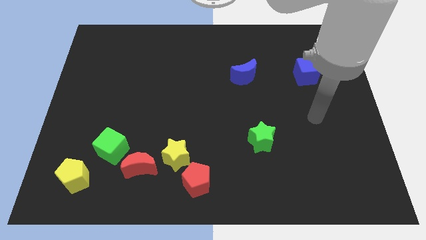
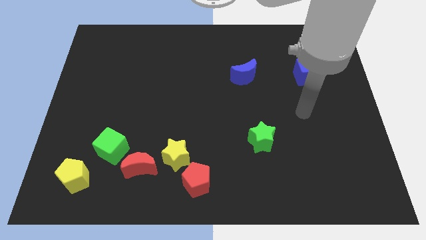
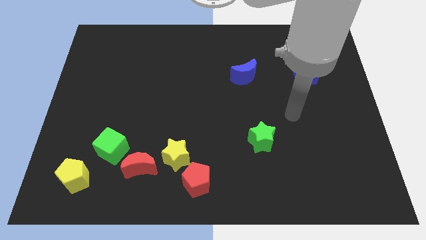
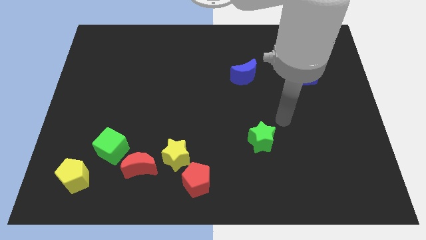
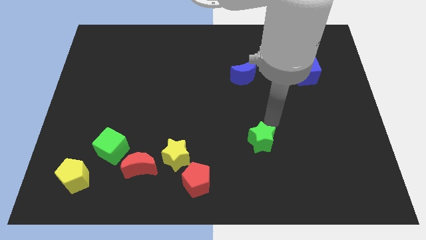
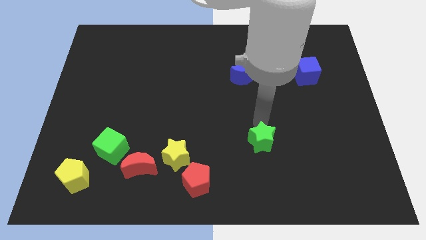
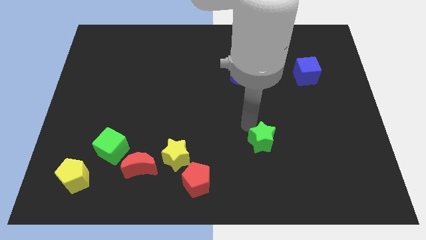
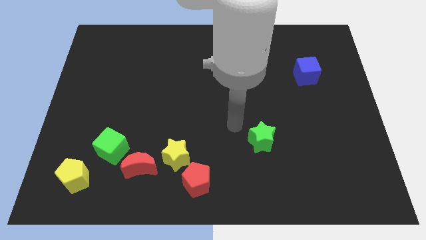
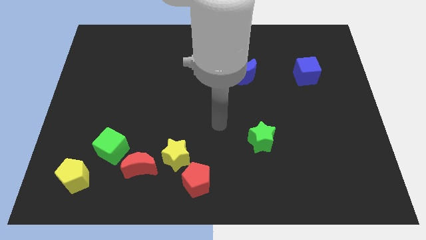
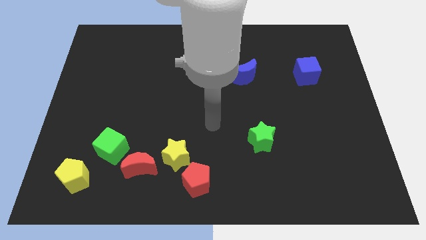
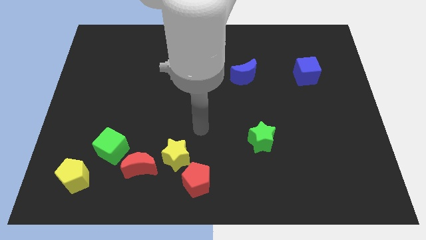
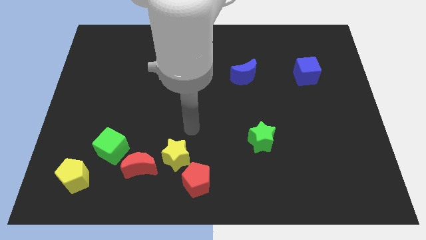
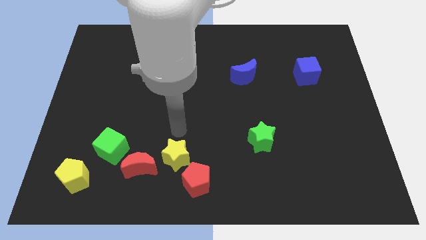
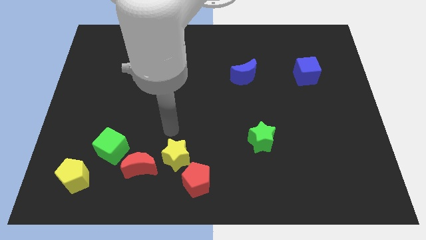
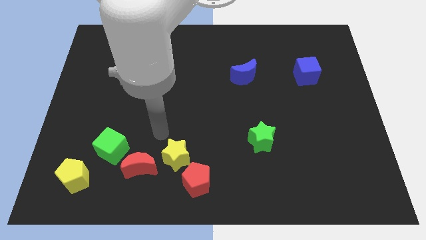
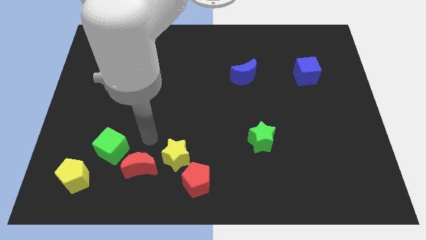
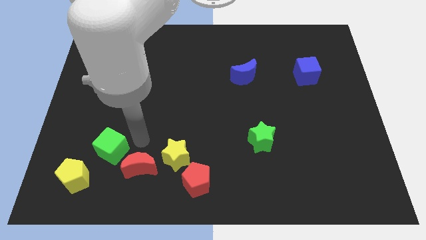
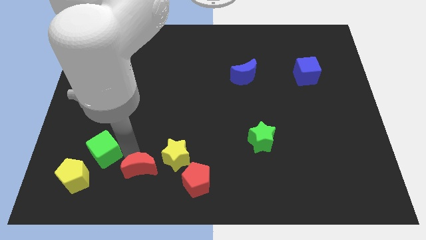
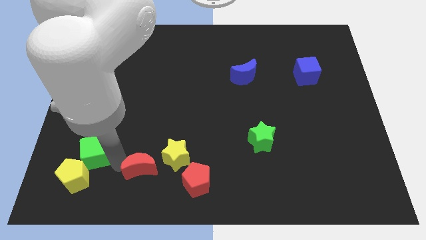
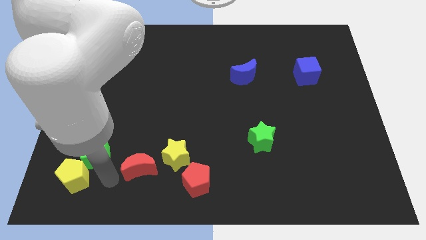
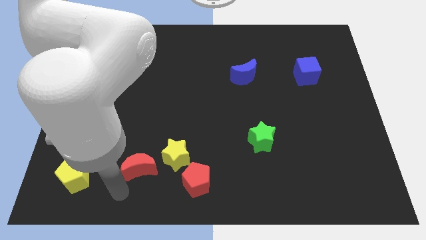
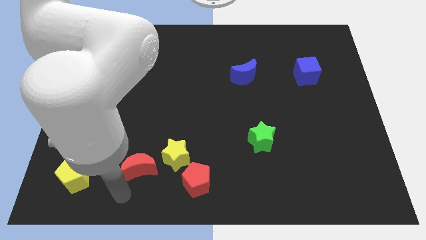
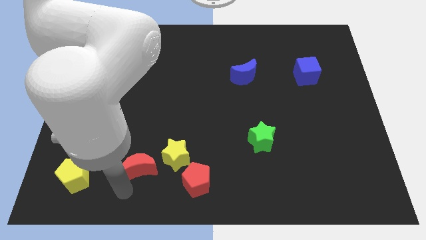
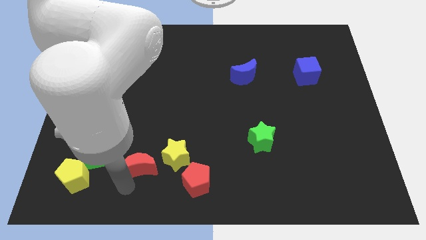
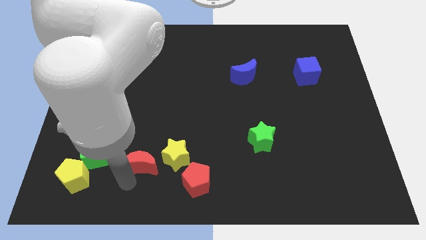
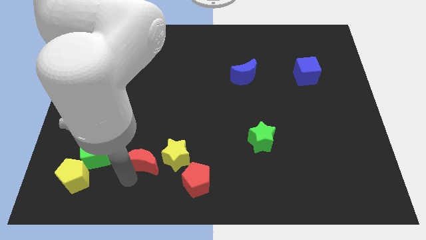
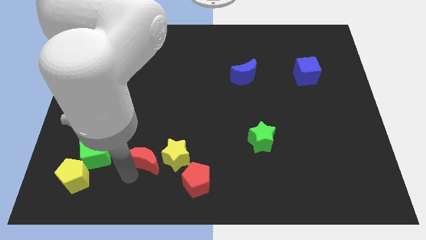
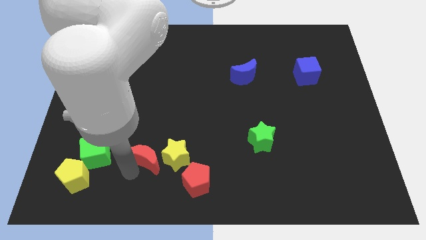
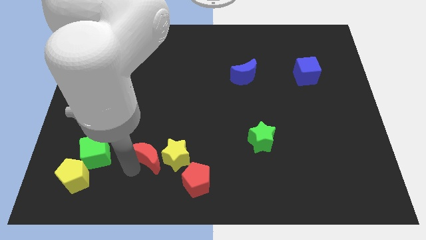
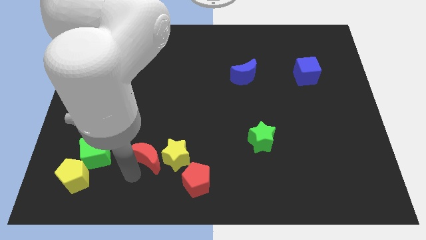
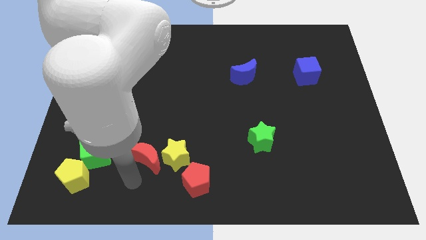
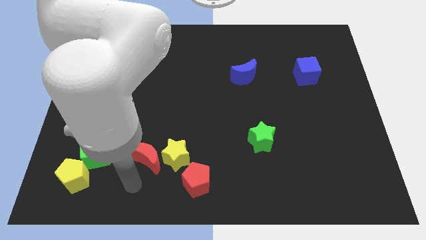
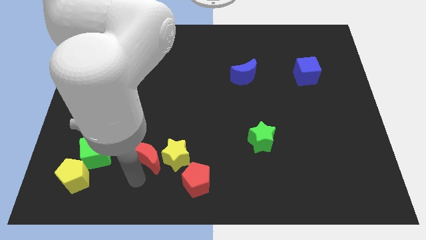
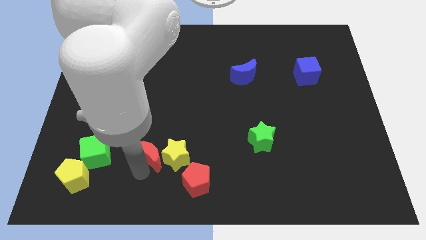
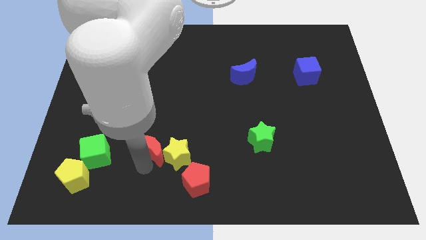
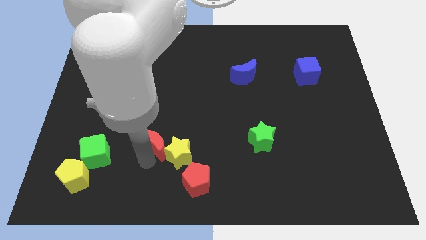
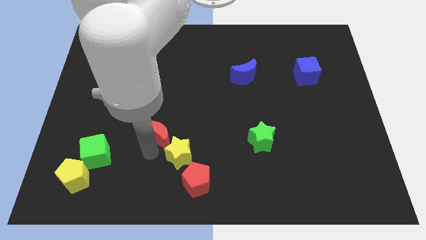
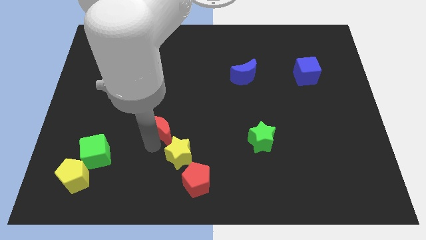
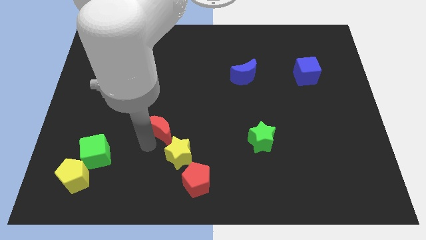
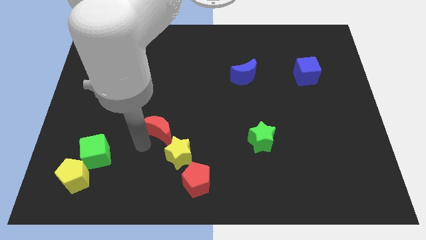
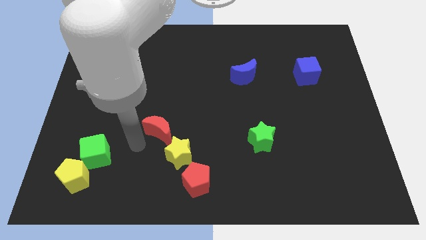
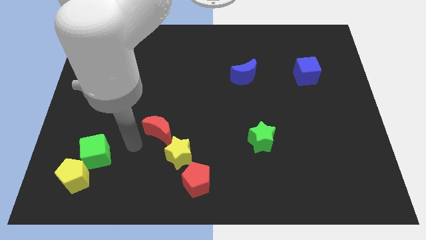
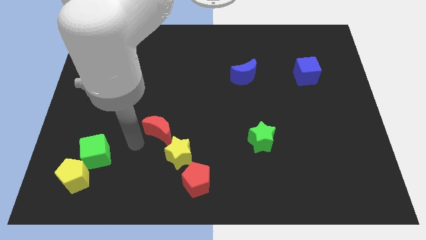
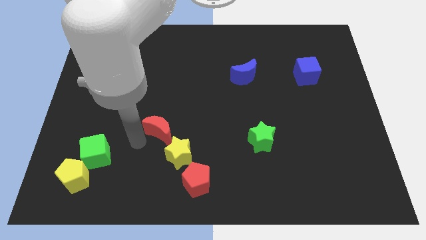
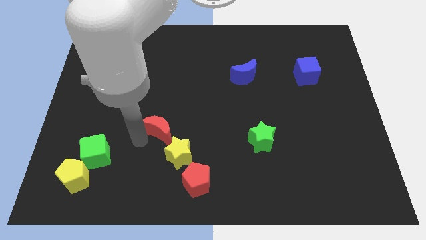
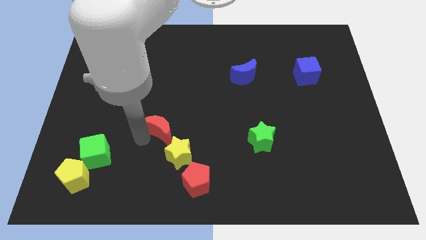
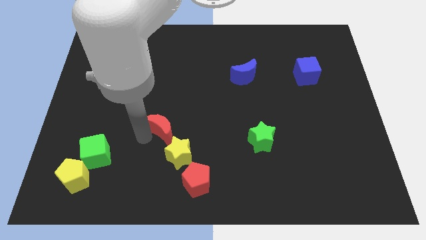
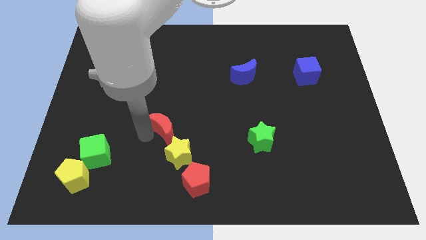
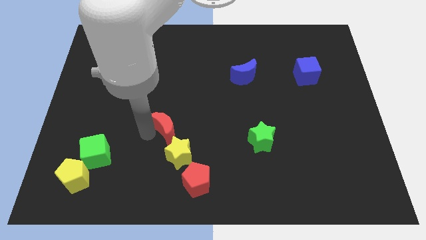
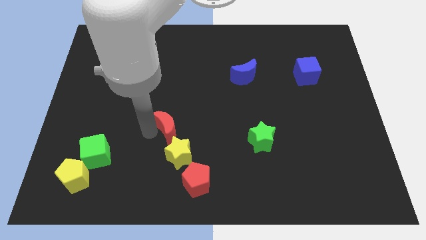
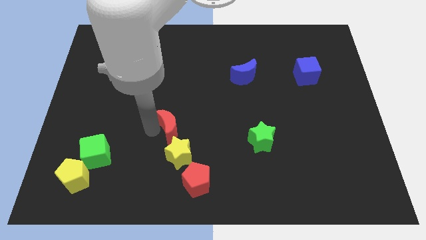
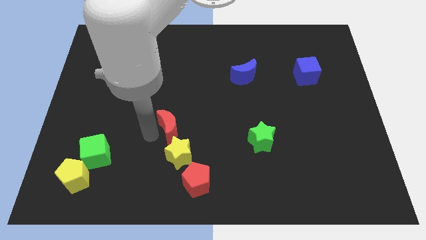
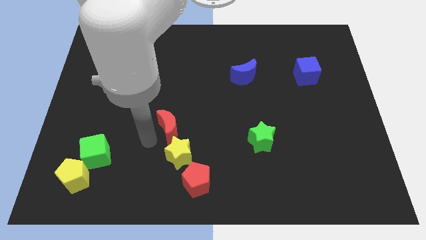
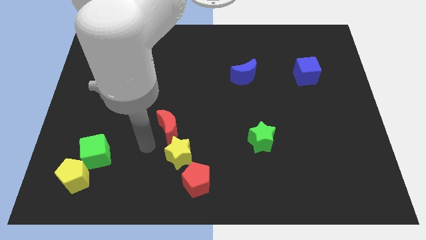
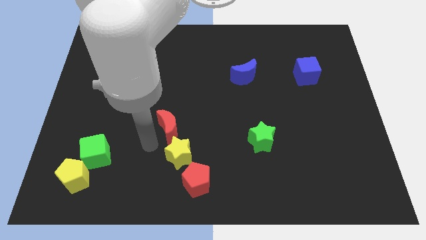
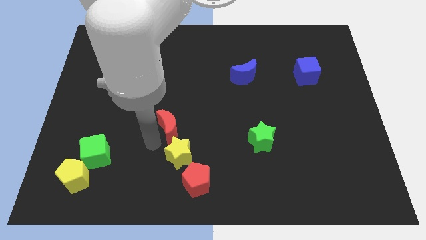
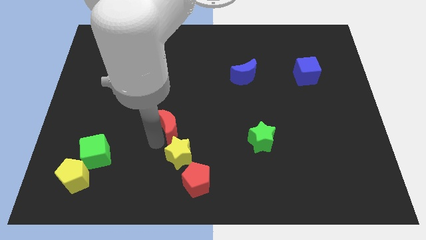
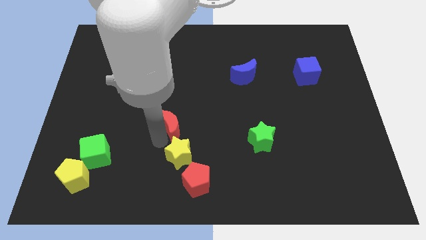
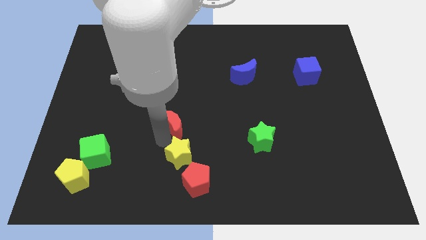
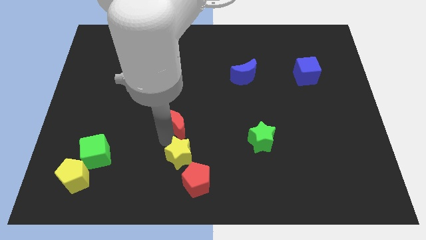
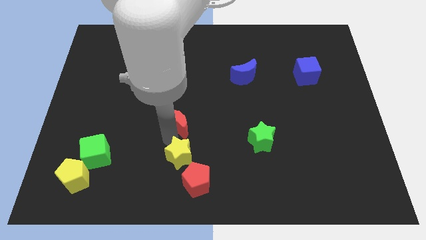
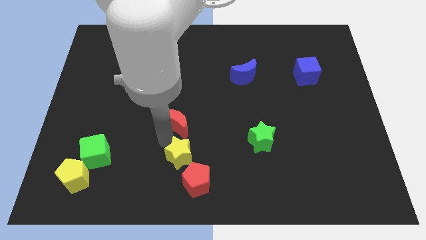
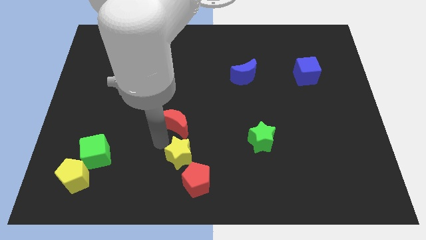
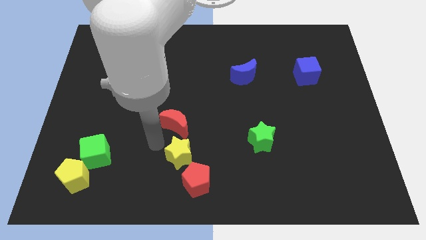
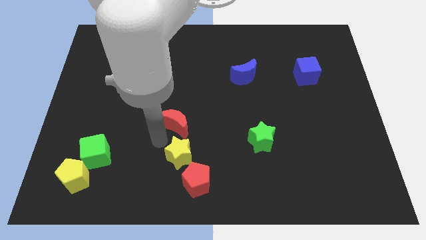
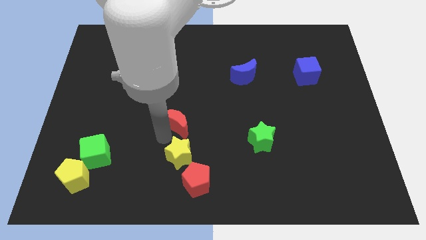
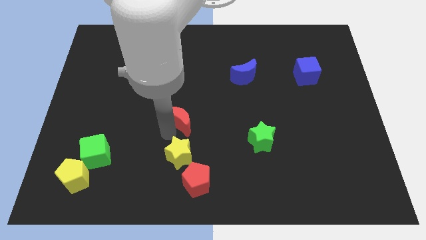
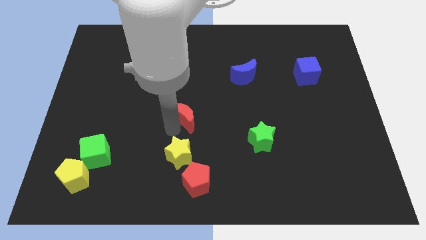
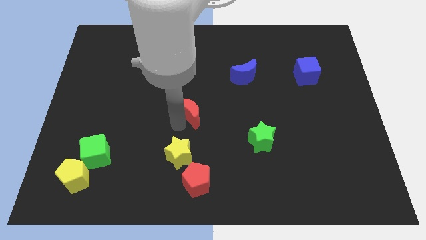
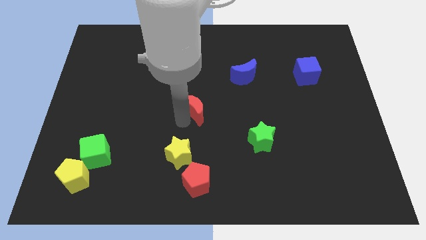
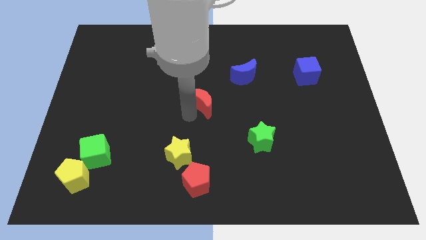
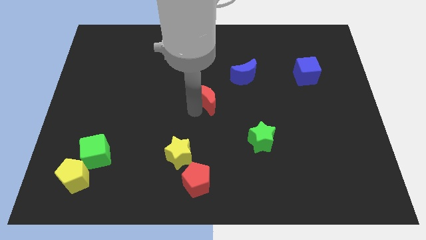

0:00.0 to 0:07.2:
push the red moon to the bottom left of the blue moon

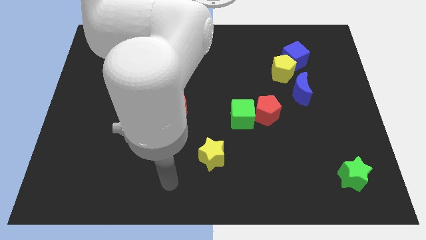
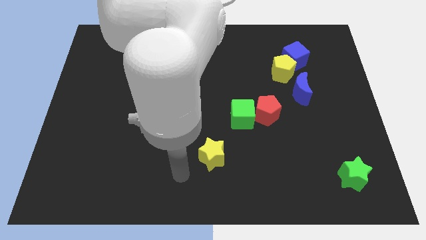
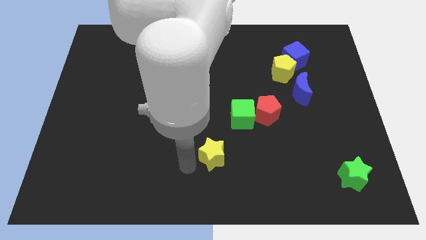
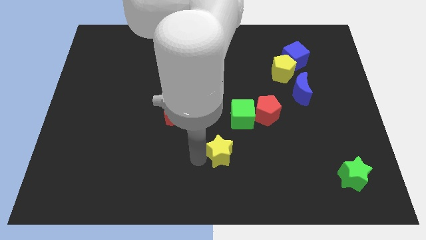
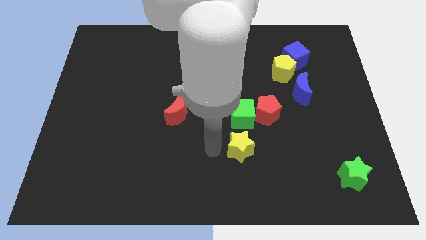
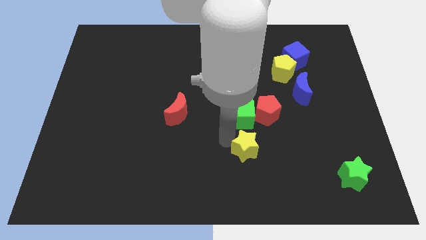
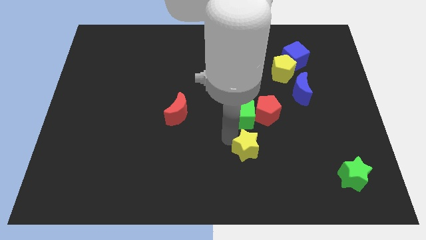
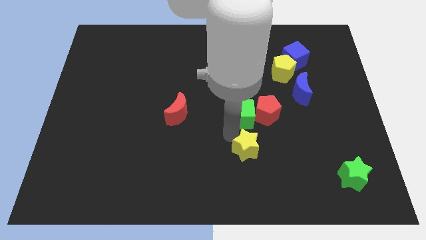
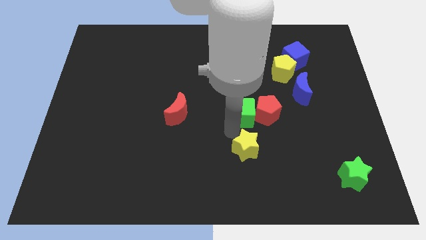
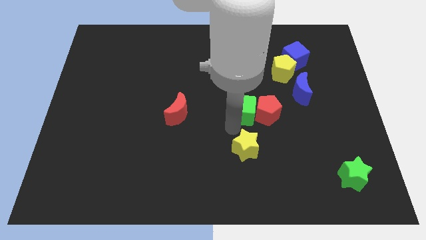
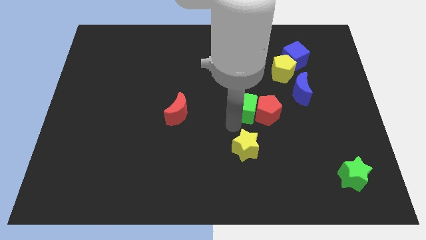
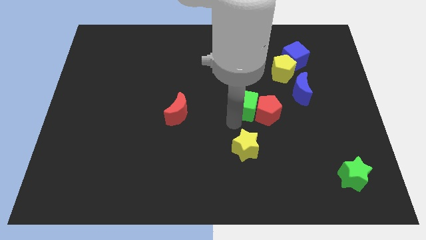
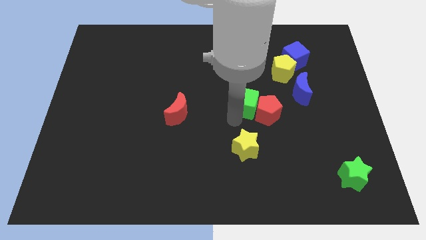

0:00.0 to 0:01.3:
put the green cube to the left side of the blue moon
